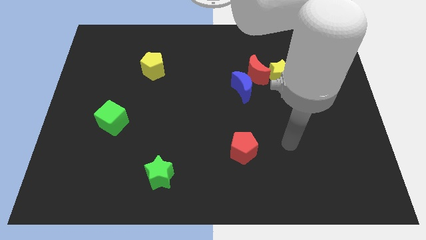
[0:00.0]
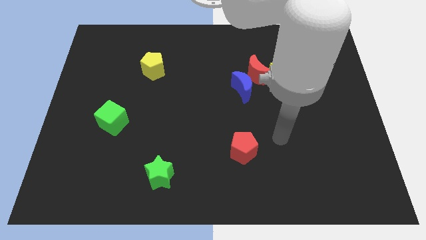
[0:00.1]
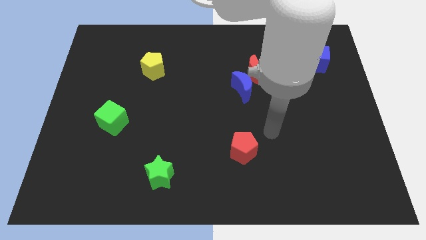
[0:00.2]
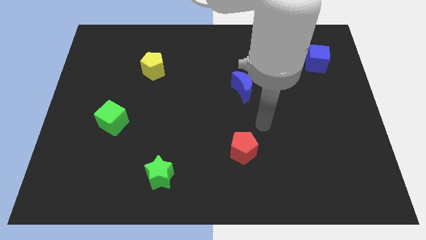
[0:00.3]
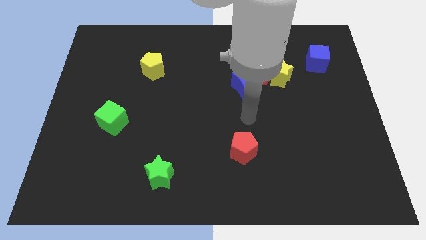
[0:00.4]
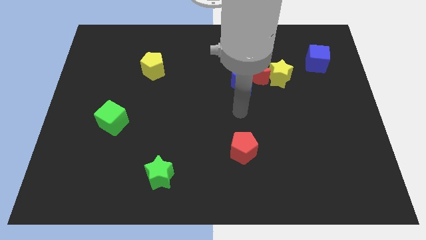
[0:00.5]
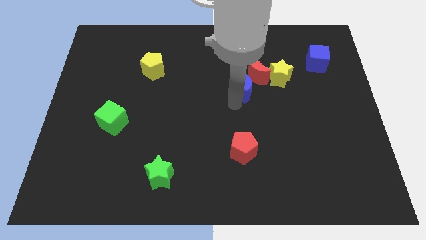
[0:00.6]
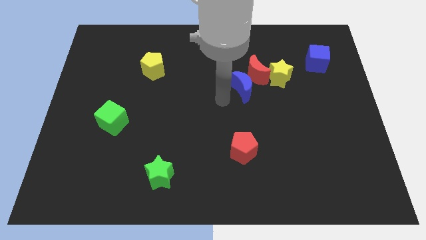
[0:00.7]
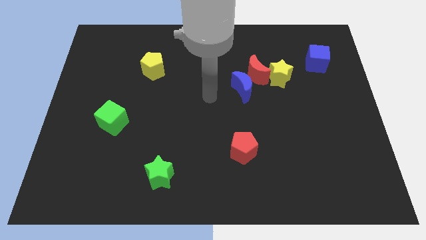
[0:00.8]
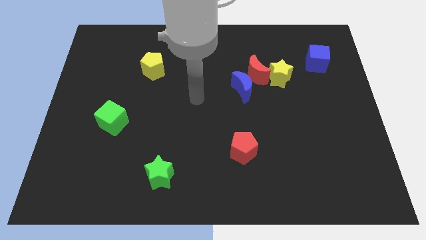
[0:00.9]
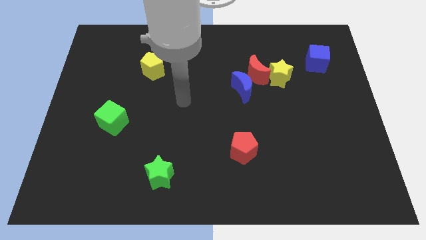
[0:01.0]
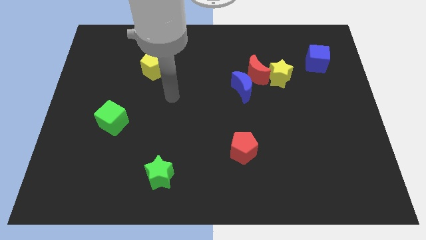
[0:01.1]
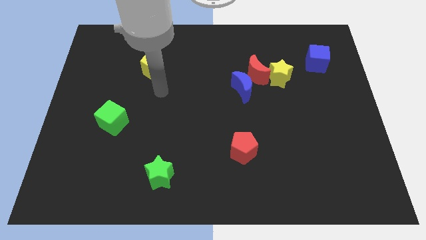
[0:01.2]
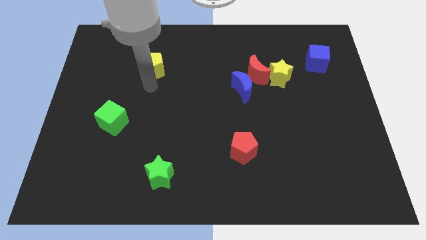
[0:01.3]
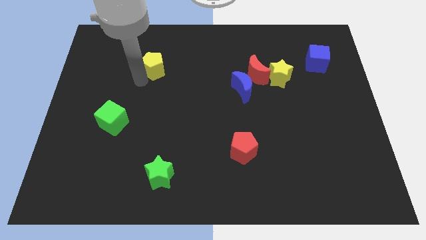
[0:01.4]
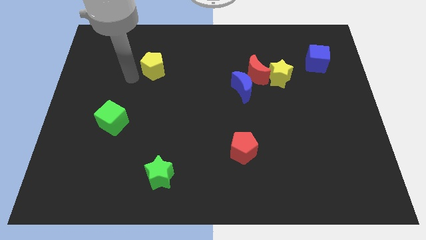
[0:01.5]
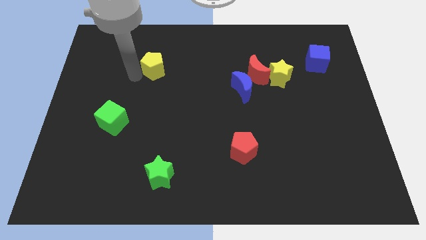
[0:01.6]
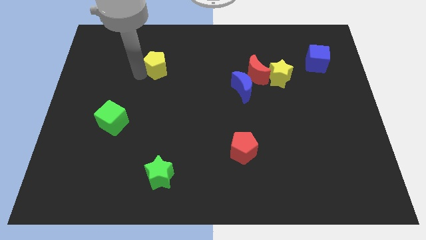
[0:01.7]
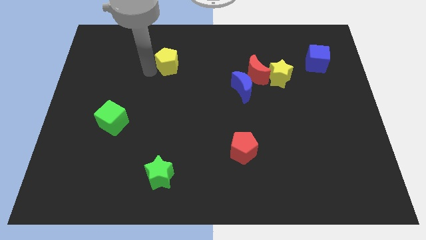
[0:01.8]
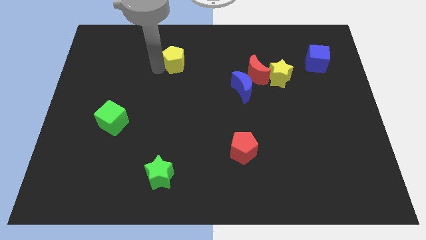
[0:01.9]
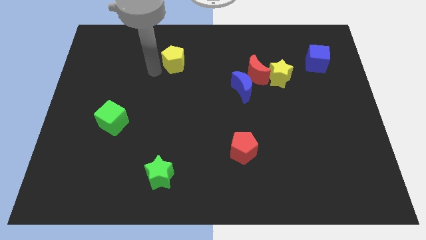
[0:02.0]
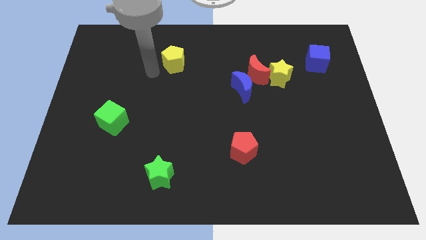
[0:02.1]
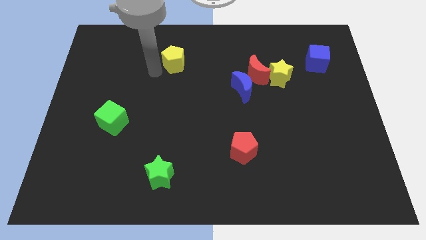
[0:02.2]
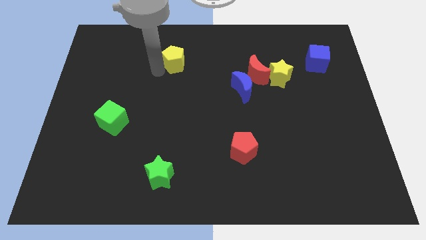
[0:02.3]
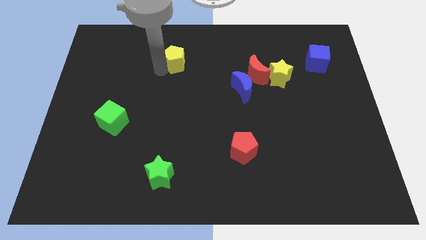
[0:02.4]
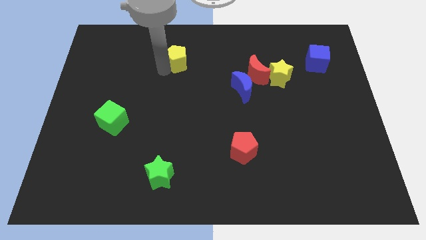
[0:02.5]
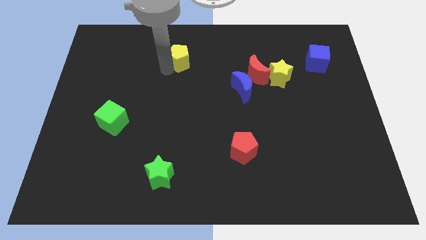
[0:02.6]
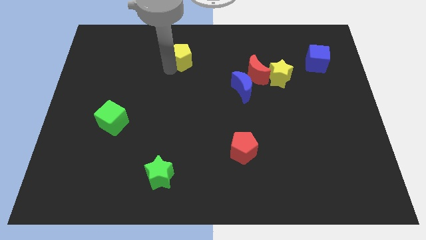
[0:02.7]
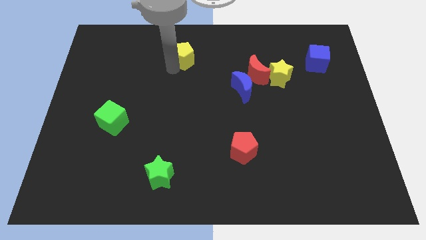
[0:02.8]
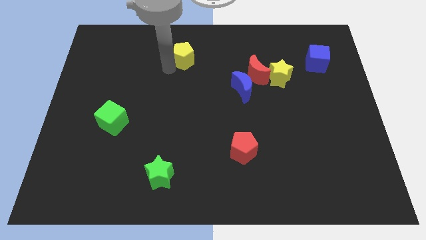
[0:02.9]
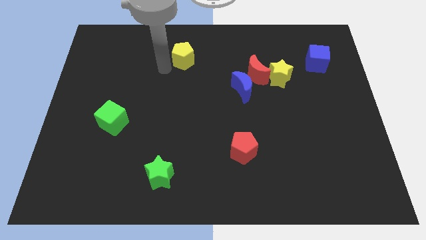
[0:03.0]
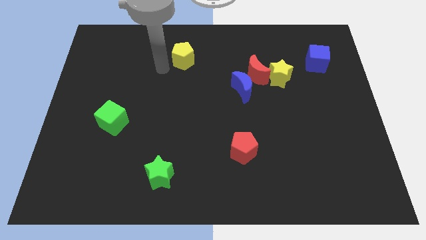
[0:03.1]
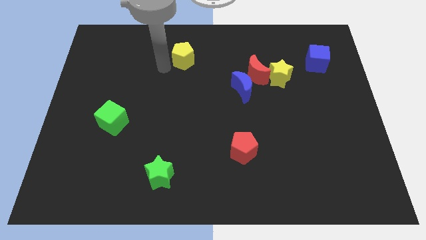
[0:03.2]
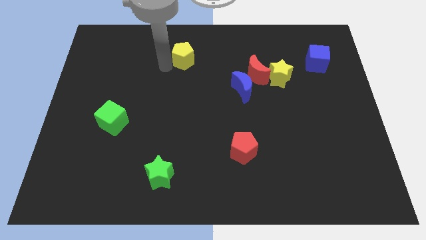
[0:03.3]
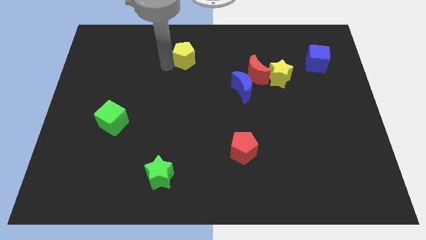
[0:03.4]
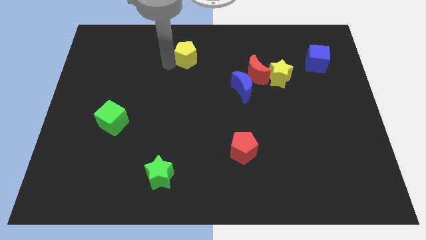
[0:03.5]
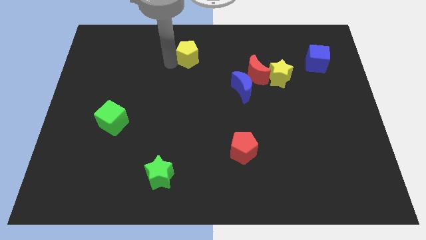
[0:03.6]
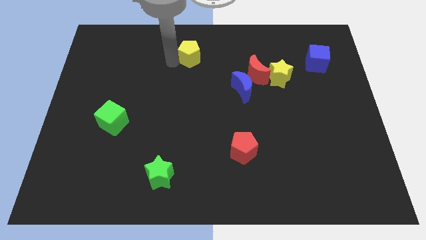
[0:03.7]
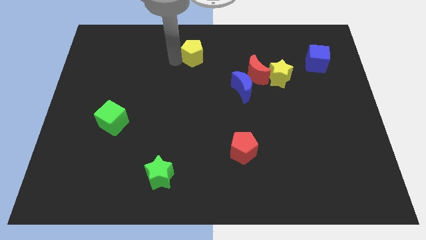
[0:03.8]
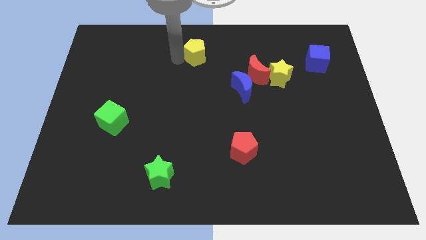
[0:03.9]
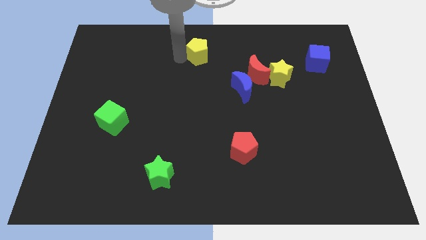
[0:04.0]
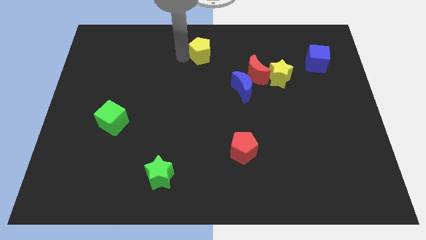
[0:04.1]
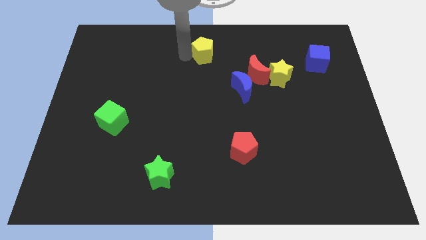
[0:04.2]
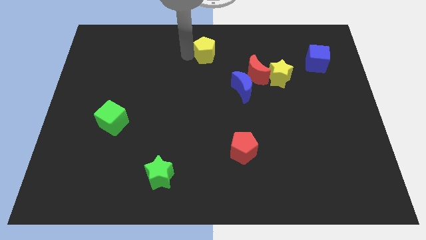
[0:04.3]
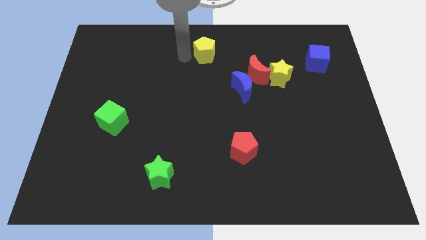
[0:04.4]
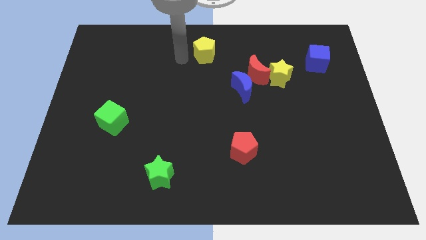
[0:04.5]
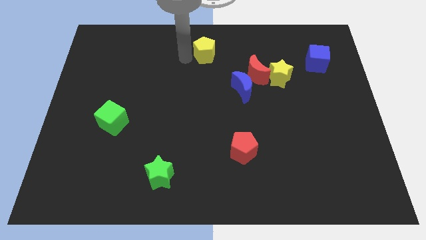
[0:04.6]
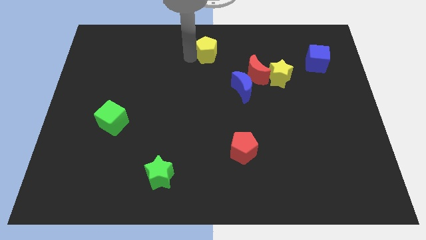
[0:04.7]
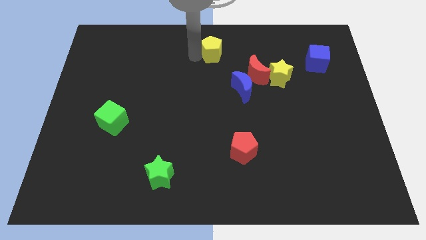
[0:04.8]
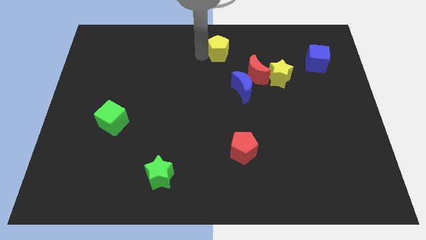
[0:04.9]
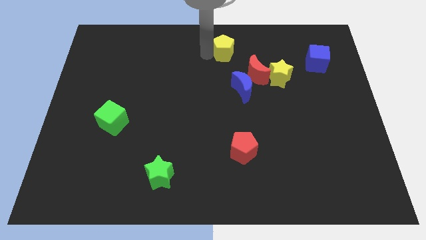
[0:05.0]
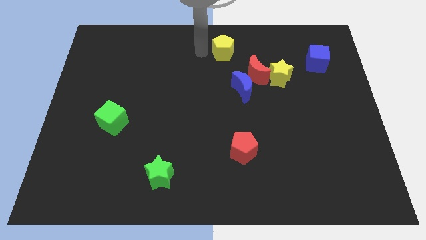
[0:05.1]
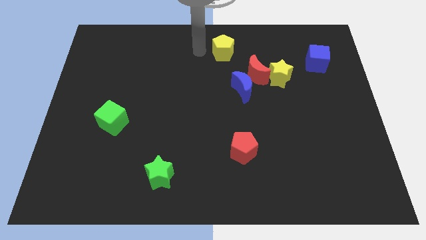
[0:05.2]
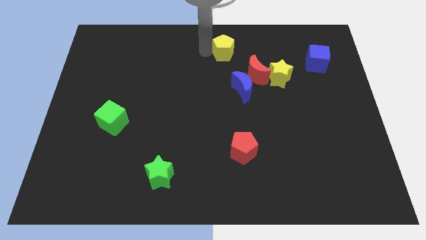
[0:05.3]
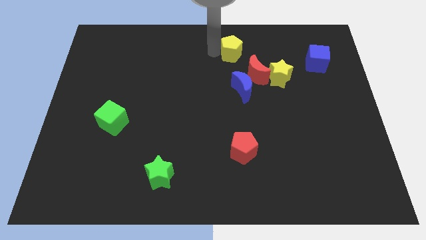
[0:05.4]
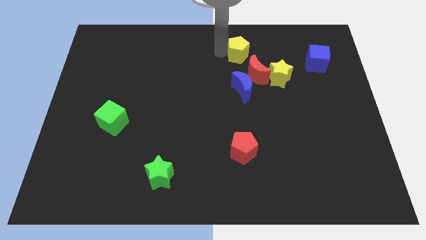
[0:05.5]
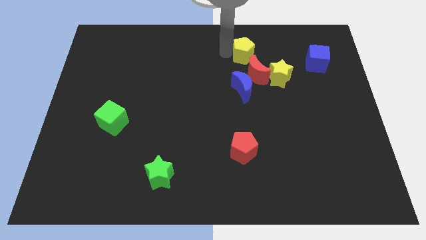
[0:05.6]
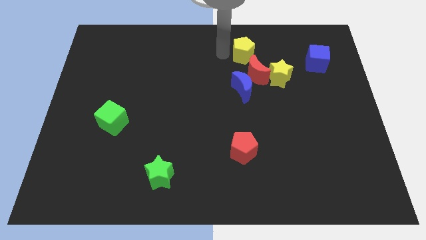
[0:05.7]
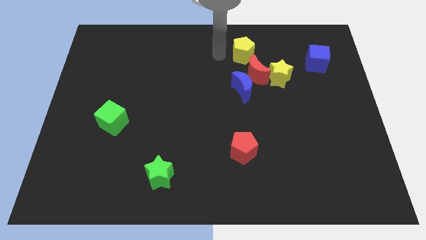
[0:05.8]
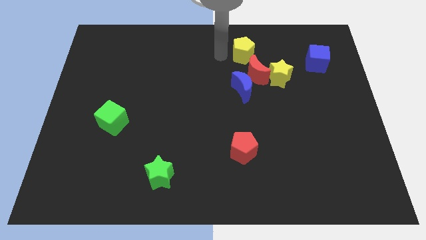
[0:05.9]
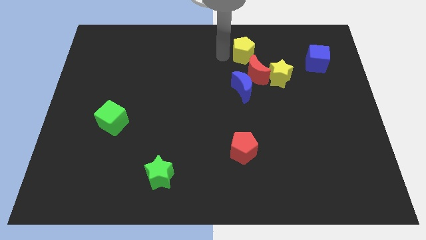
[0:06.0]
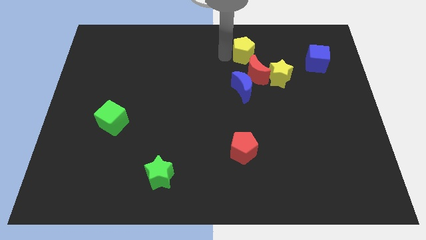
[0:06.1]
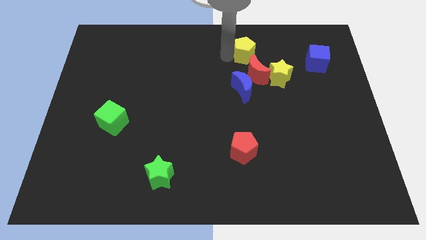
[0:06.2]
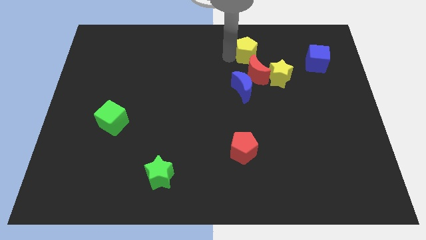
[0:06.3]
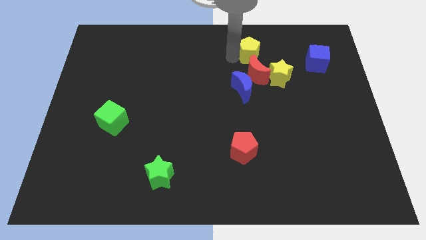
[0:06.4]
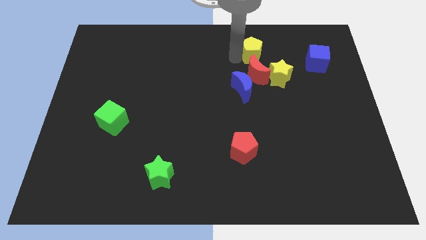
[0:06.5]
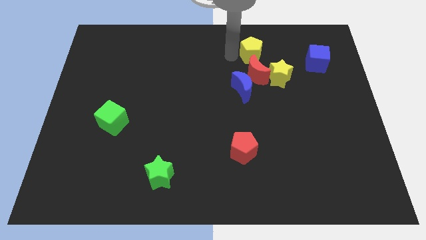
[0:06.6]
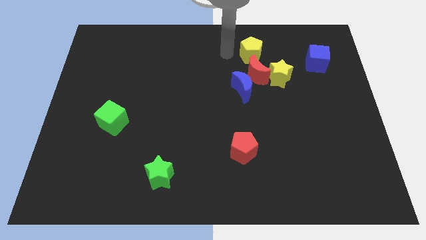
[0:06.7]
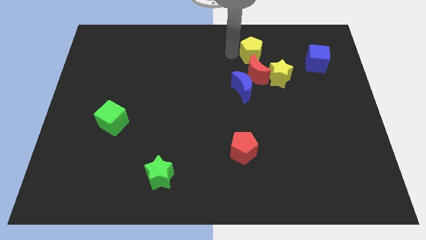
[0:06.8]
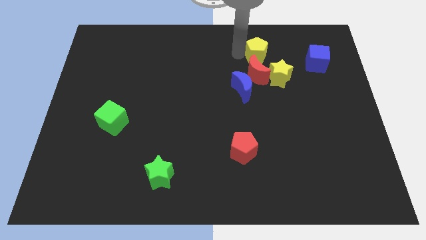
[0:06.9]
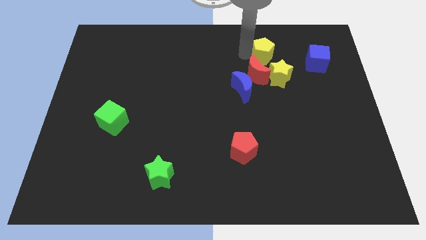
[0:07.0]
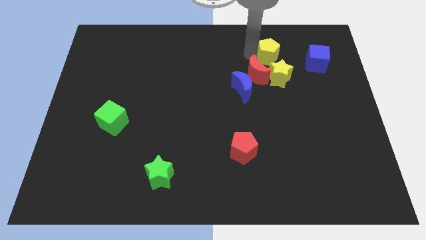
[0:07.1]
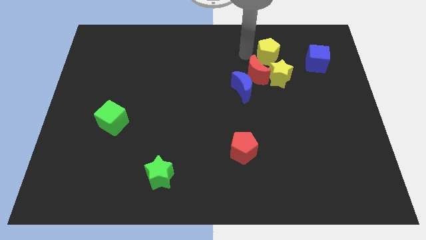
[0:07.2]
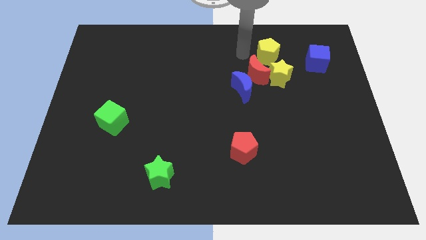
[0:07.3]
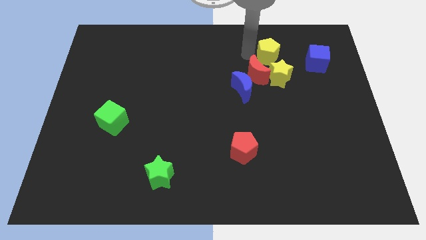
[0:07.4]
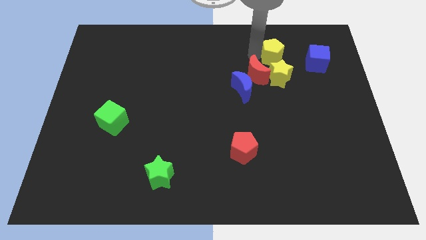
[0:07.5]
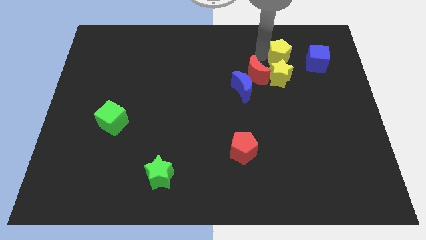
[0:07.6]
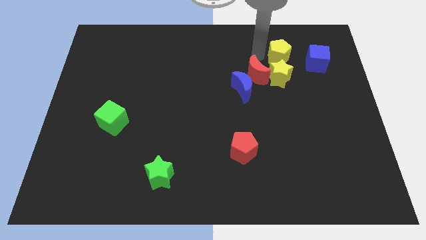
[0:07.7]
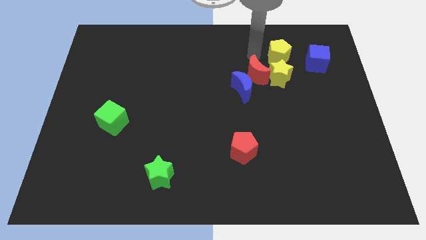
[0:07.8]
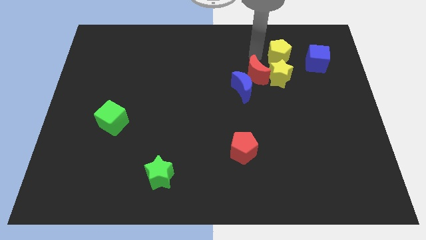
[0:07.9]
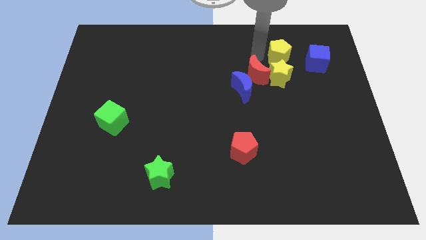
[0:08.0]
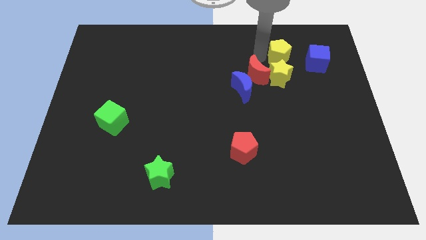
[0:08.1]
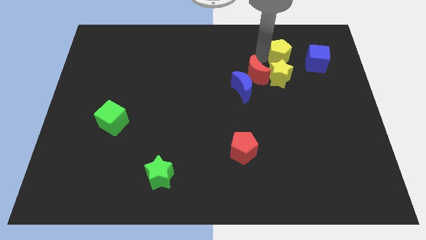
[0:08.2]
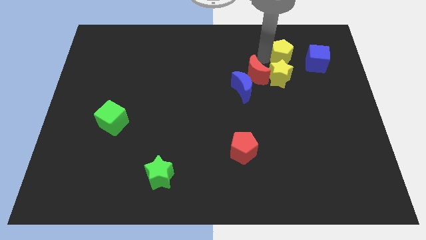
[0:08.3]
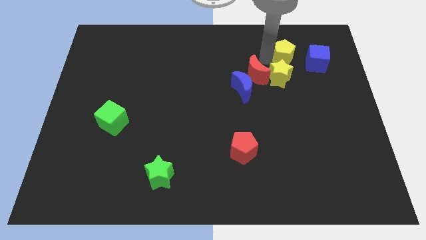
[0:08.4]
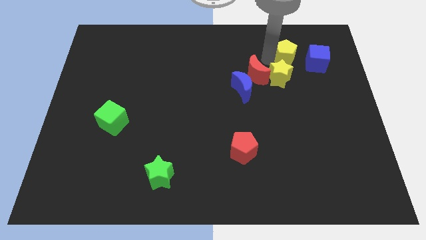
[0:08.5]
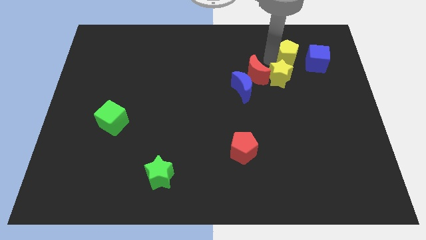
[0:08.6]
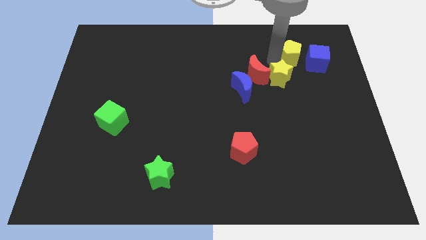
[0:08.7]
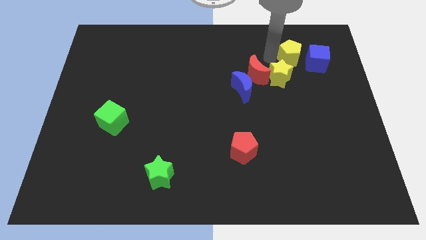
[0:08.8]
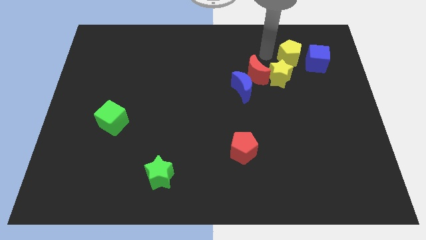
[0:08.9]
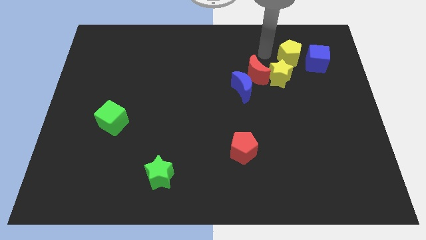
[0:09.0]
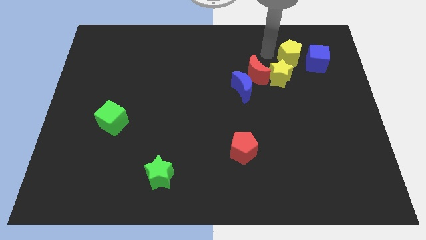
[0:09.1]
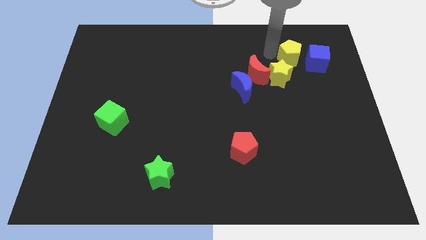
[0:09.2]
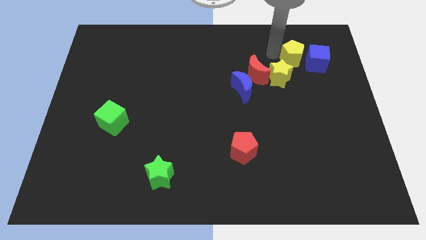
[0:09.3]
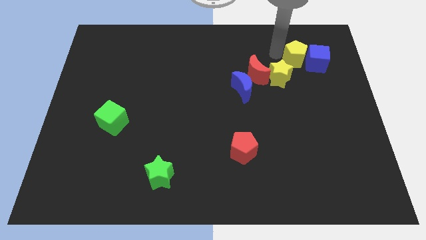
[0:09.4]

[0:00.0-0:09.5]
slide the yellow pentagon to the blue cube
